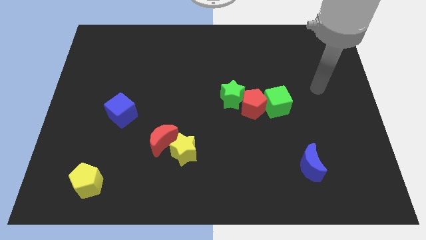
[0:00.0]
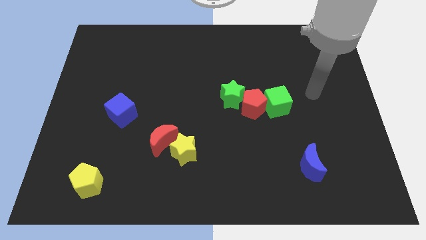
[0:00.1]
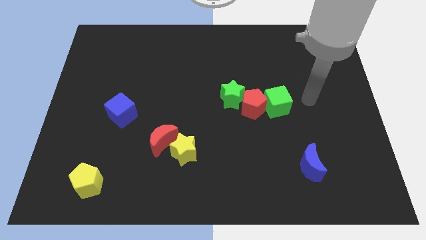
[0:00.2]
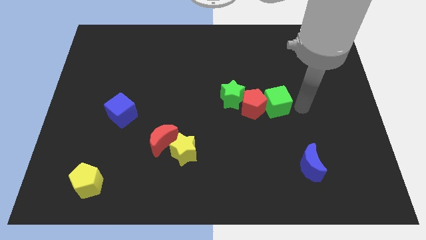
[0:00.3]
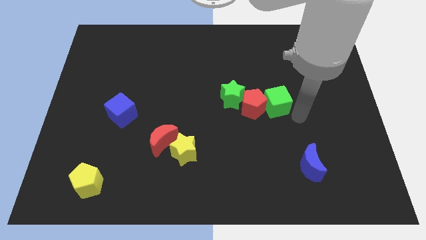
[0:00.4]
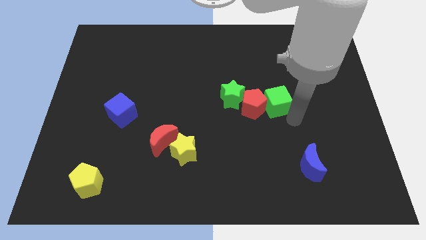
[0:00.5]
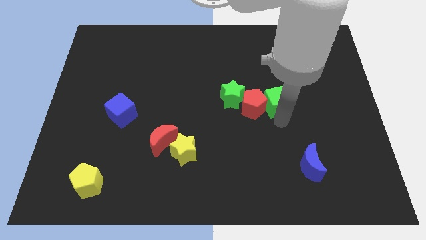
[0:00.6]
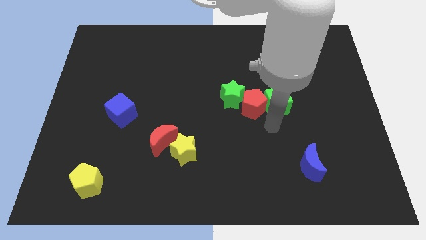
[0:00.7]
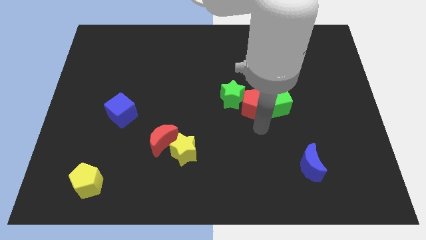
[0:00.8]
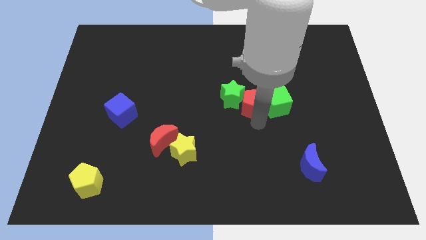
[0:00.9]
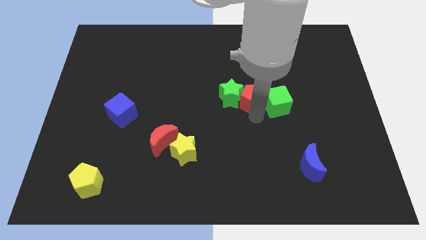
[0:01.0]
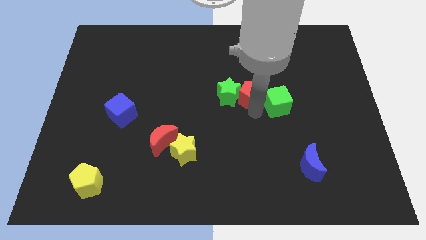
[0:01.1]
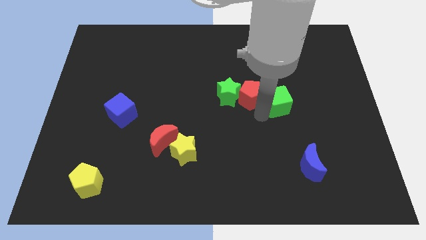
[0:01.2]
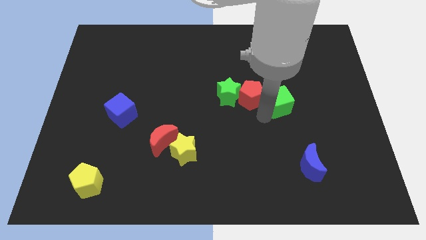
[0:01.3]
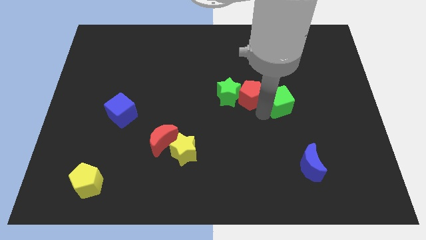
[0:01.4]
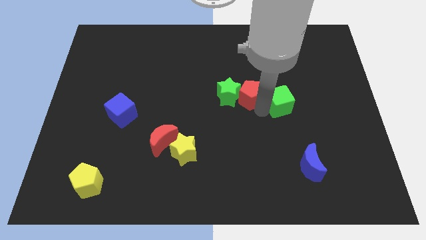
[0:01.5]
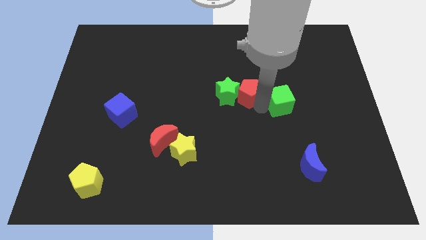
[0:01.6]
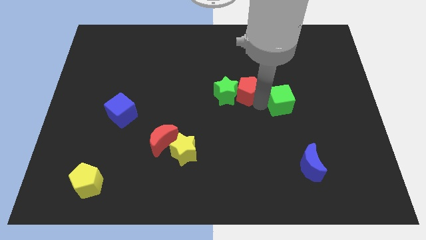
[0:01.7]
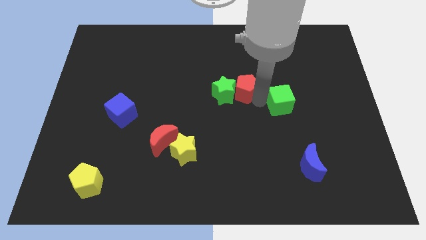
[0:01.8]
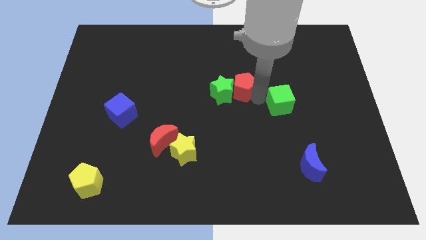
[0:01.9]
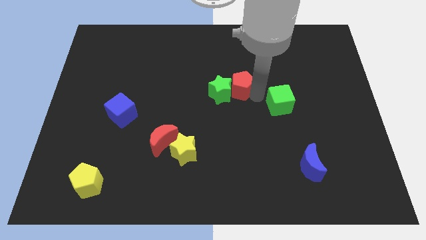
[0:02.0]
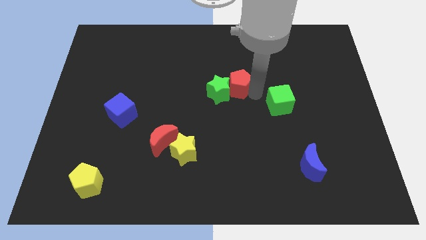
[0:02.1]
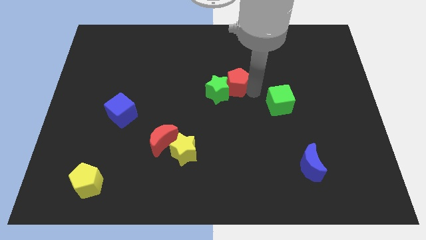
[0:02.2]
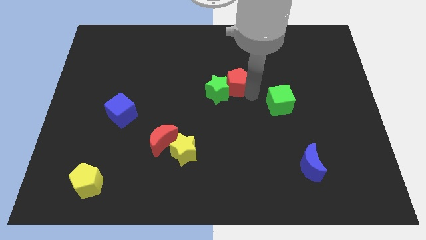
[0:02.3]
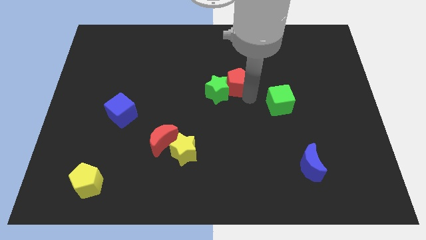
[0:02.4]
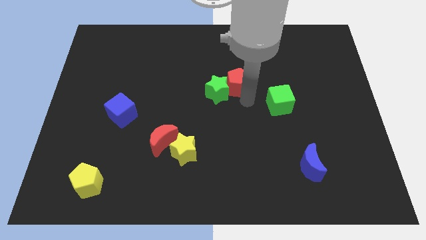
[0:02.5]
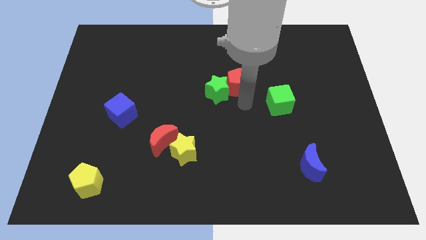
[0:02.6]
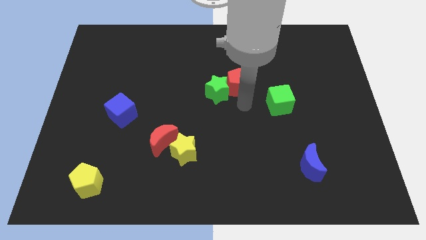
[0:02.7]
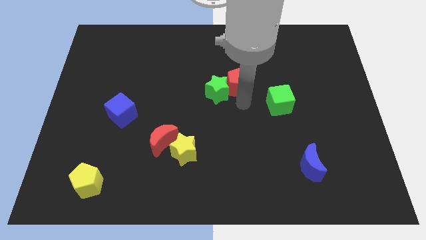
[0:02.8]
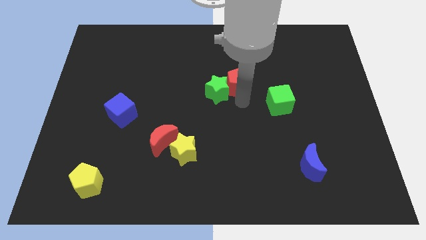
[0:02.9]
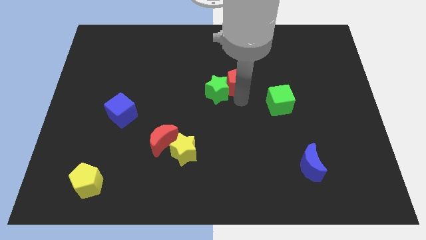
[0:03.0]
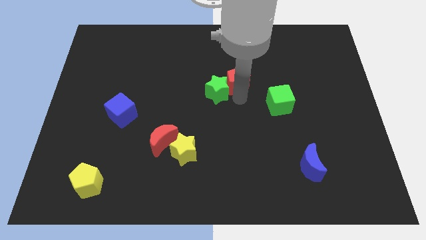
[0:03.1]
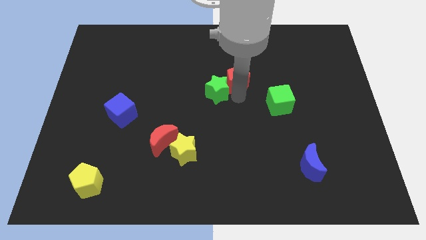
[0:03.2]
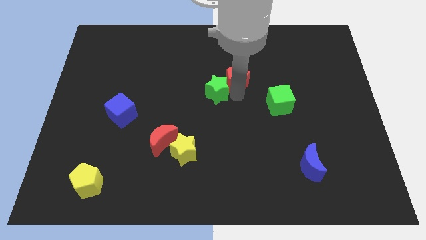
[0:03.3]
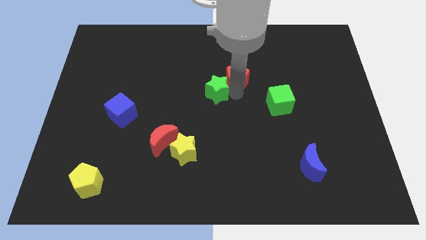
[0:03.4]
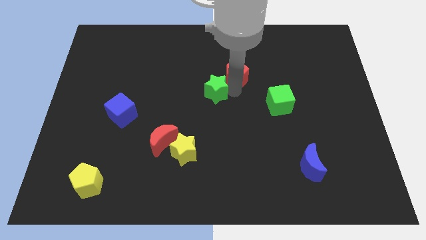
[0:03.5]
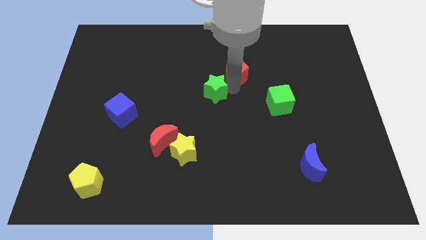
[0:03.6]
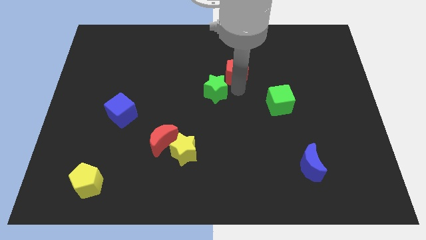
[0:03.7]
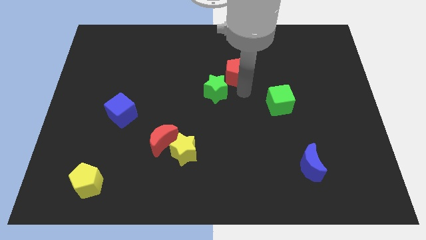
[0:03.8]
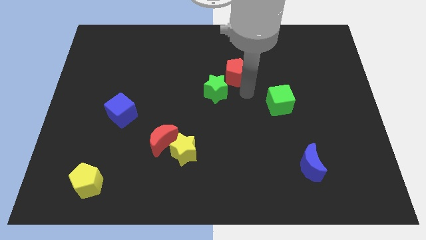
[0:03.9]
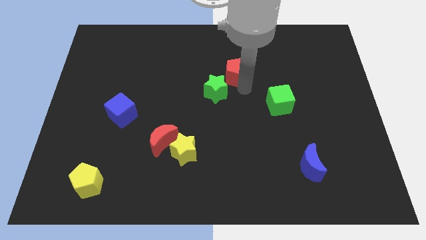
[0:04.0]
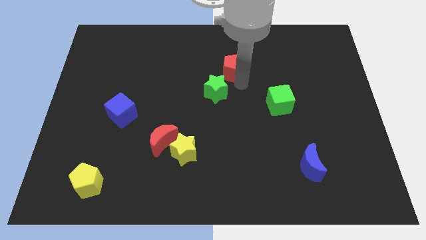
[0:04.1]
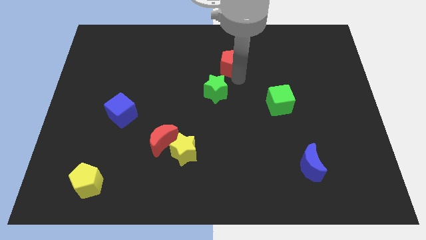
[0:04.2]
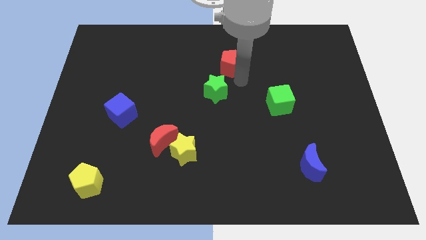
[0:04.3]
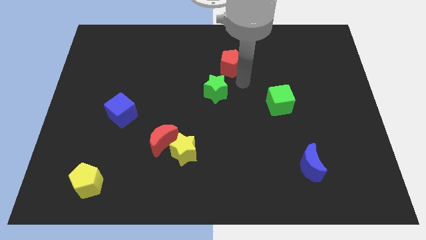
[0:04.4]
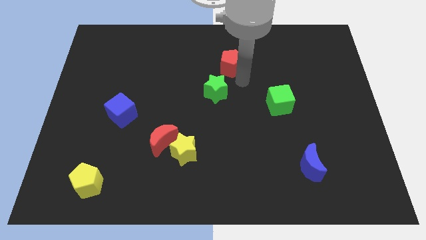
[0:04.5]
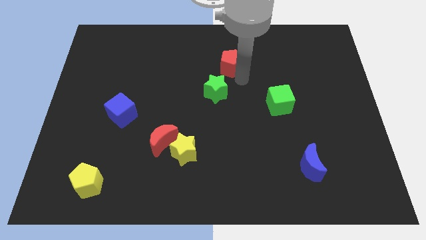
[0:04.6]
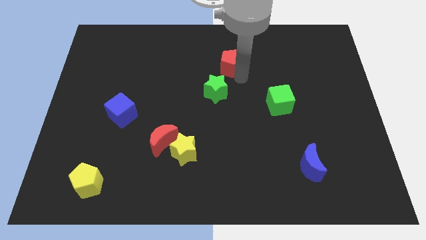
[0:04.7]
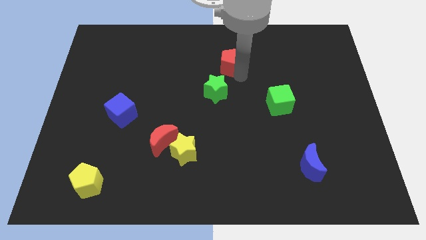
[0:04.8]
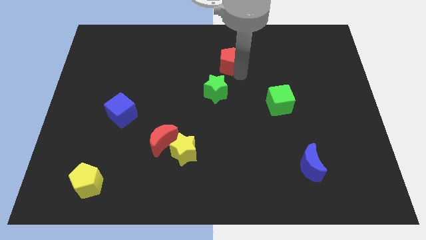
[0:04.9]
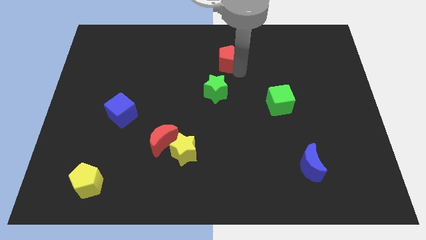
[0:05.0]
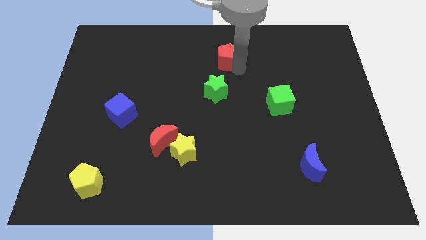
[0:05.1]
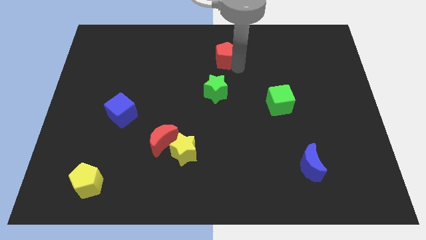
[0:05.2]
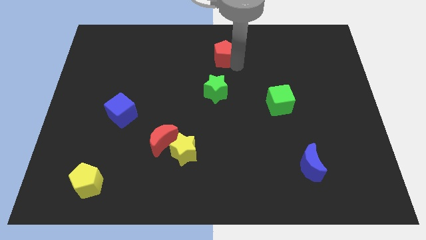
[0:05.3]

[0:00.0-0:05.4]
slide the red pentagon to the top side

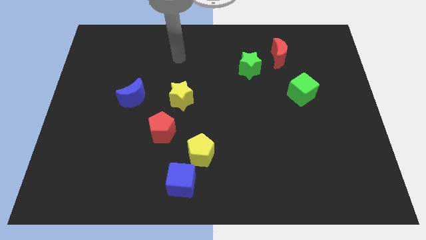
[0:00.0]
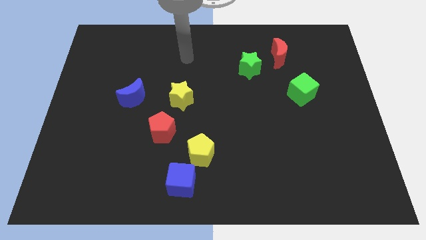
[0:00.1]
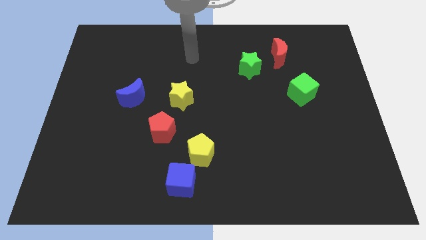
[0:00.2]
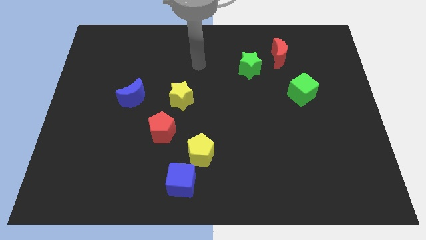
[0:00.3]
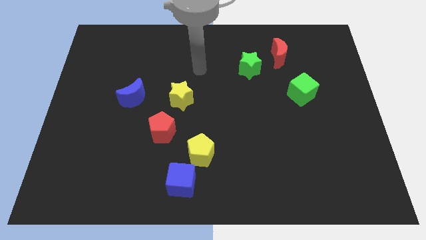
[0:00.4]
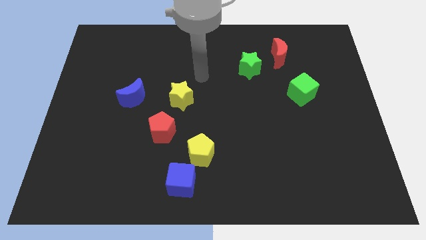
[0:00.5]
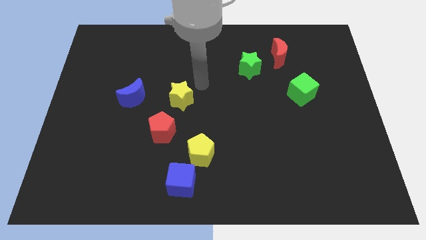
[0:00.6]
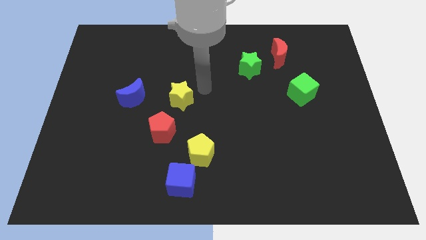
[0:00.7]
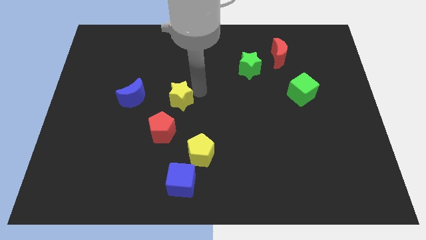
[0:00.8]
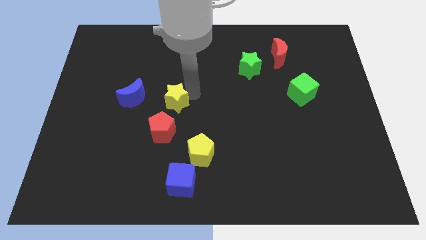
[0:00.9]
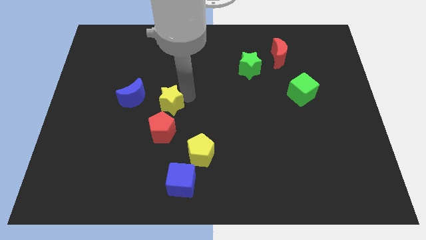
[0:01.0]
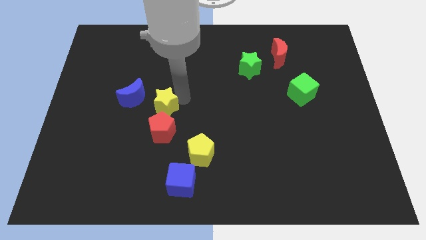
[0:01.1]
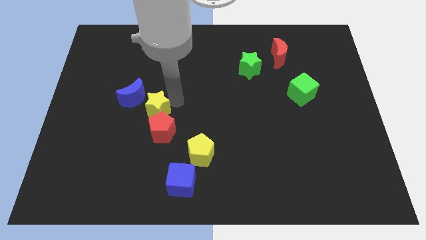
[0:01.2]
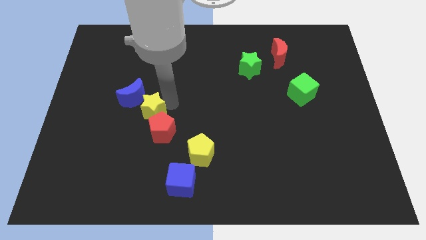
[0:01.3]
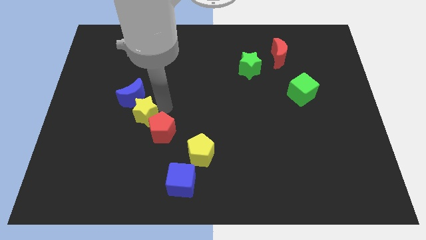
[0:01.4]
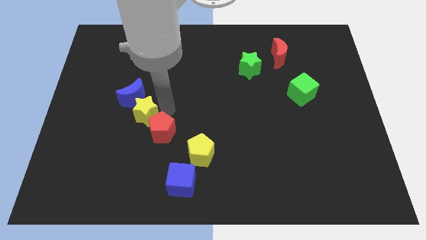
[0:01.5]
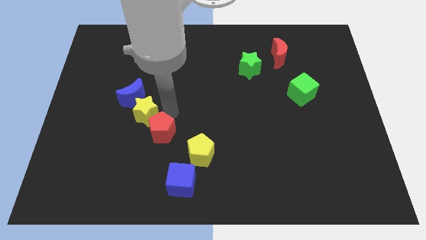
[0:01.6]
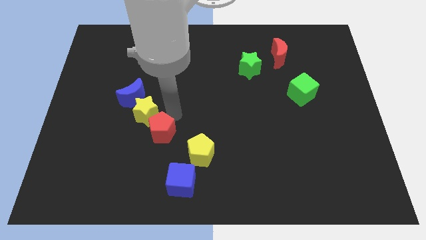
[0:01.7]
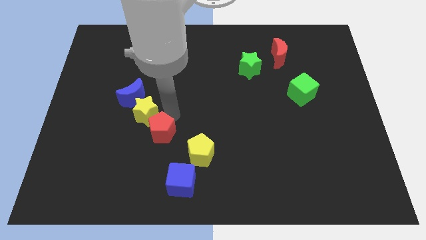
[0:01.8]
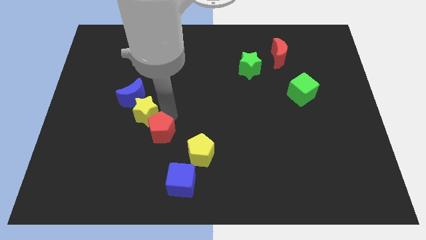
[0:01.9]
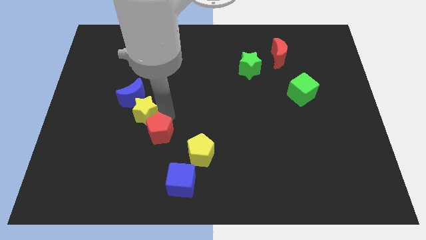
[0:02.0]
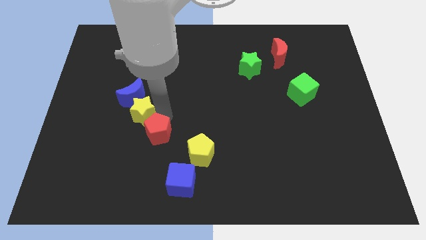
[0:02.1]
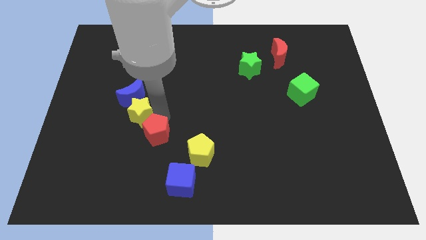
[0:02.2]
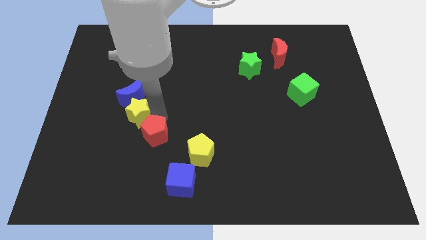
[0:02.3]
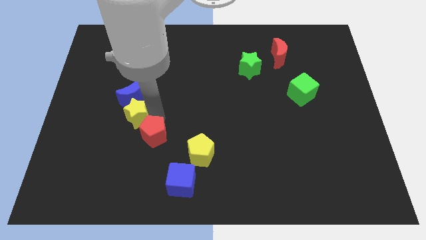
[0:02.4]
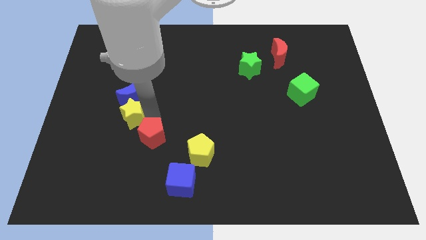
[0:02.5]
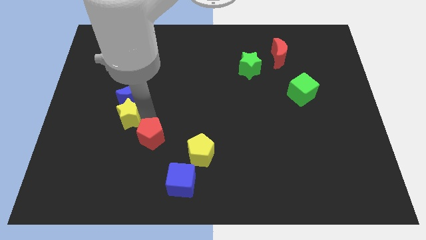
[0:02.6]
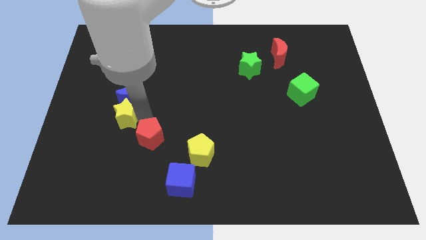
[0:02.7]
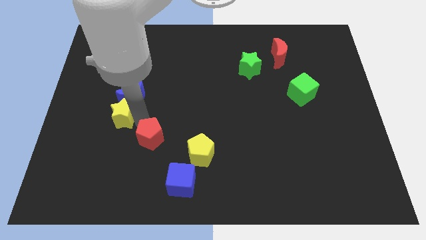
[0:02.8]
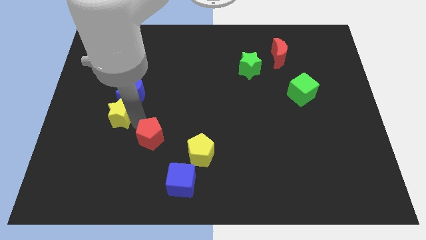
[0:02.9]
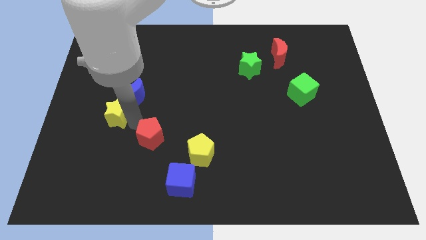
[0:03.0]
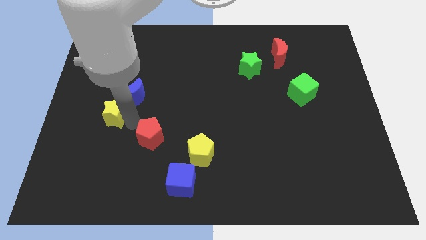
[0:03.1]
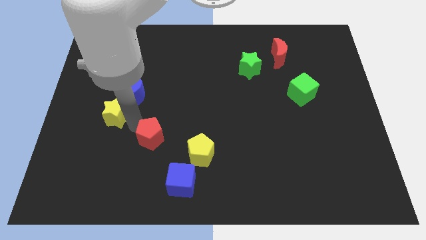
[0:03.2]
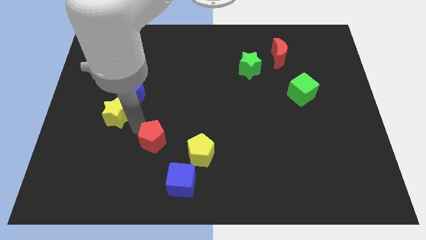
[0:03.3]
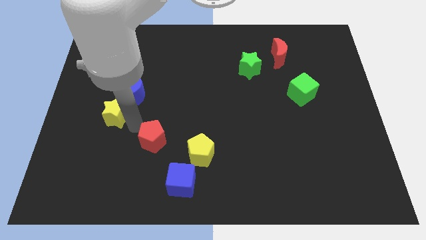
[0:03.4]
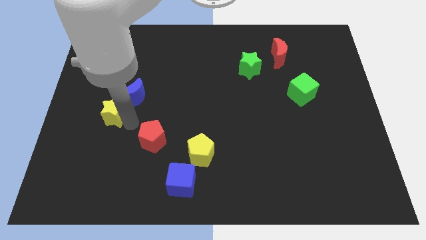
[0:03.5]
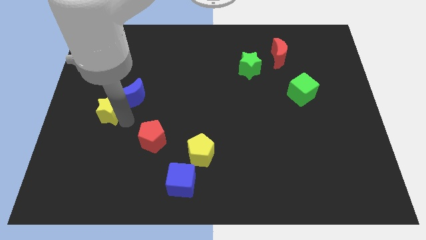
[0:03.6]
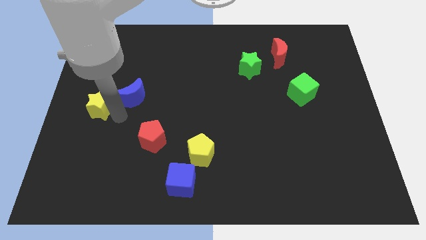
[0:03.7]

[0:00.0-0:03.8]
put the yellow star to the center left
